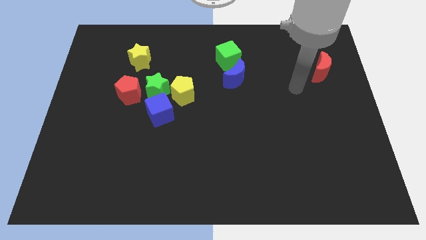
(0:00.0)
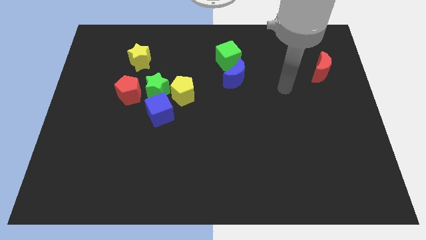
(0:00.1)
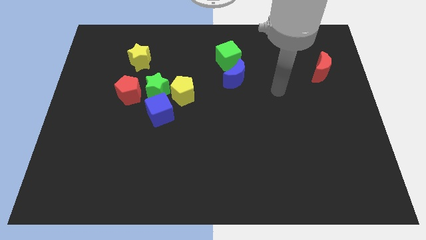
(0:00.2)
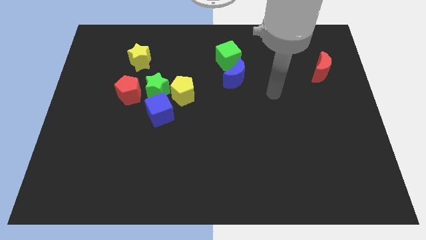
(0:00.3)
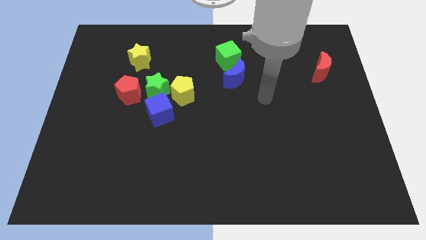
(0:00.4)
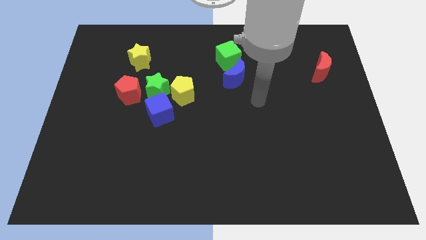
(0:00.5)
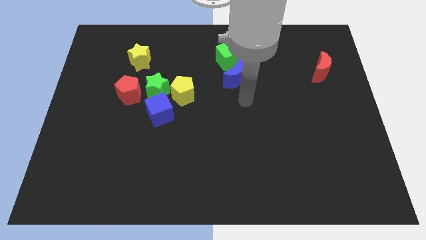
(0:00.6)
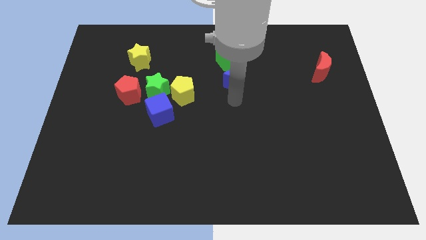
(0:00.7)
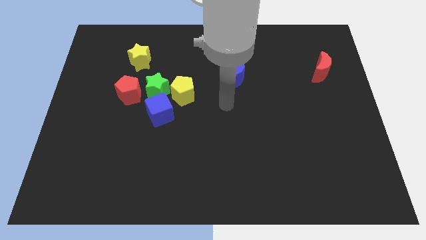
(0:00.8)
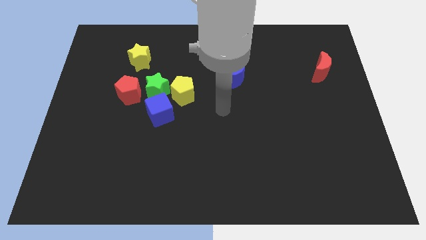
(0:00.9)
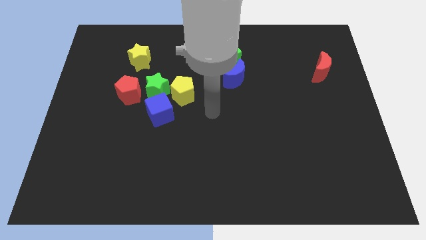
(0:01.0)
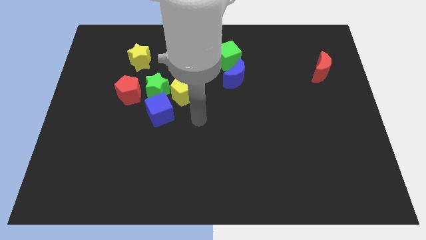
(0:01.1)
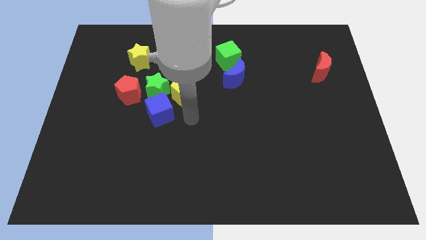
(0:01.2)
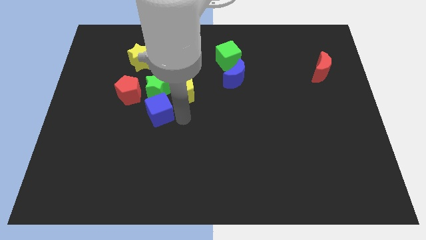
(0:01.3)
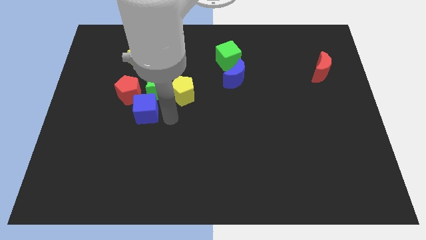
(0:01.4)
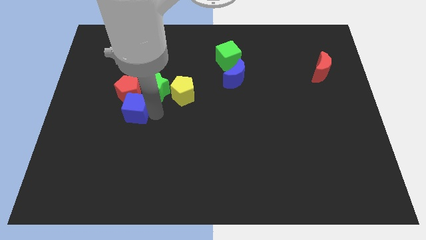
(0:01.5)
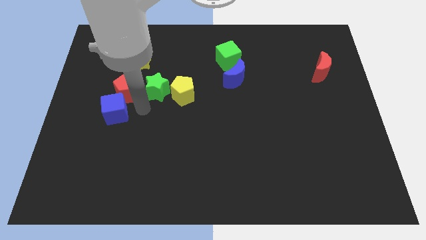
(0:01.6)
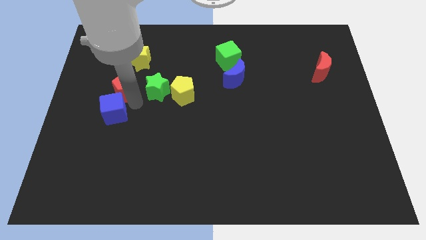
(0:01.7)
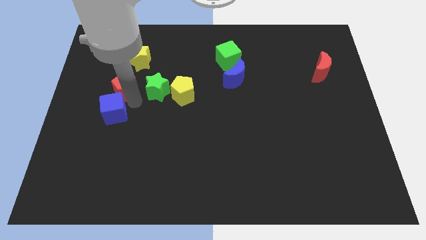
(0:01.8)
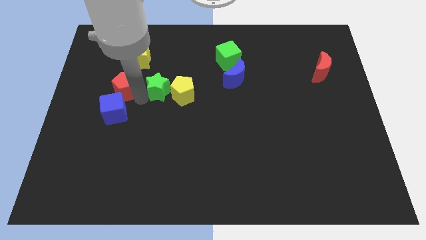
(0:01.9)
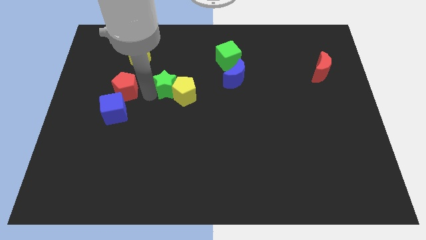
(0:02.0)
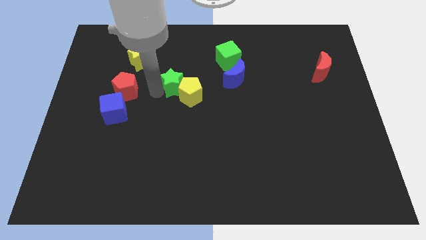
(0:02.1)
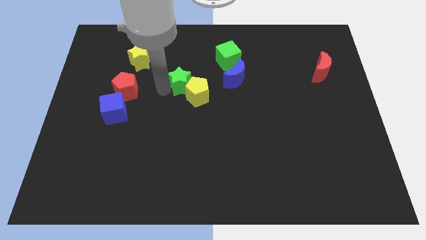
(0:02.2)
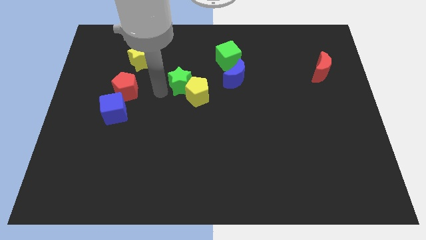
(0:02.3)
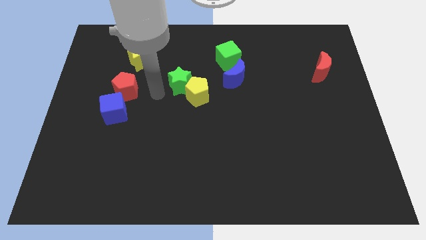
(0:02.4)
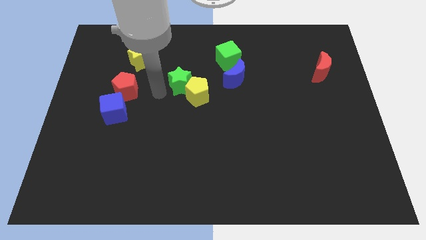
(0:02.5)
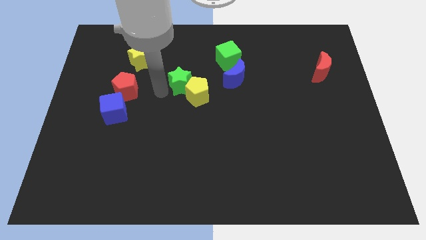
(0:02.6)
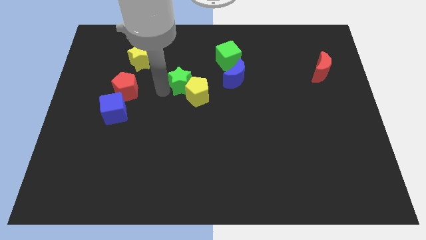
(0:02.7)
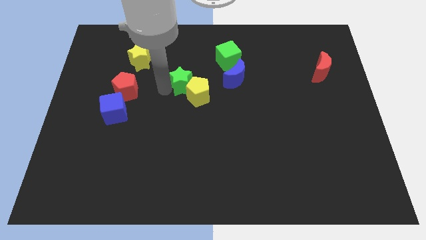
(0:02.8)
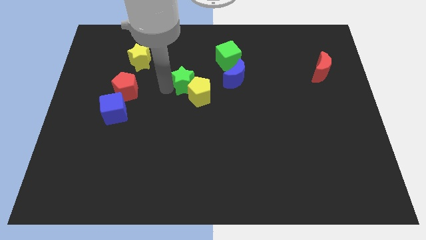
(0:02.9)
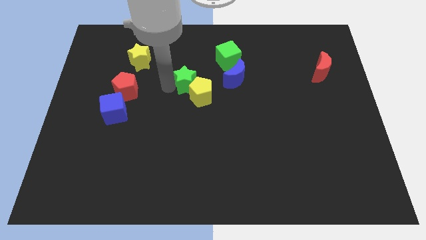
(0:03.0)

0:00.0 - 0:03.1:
move the green star away from the yellow pentagon, blue cube, and red pentagon

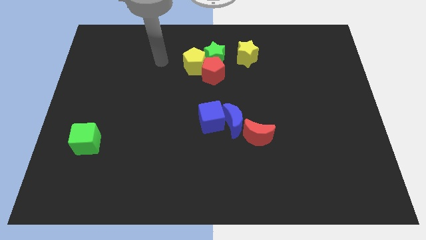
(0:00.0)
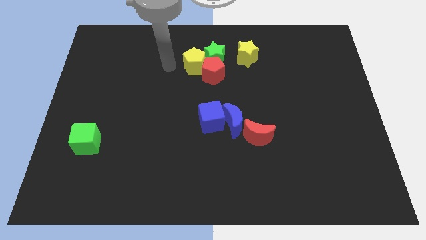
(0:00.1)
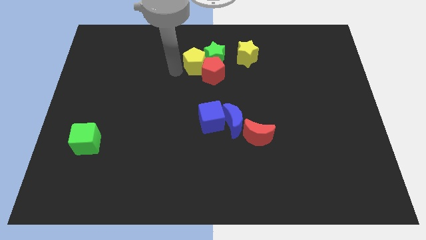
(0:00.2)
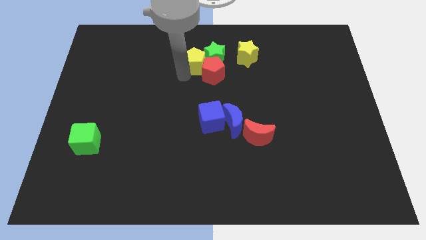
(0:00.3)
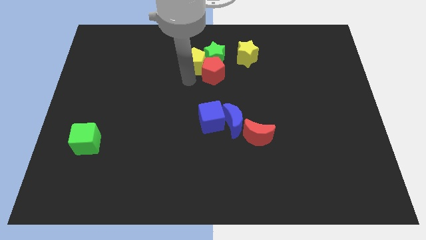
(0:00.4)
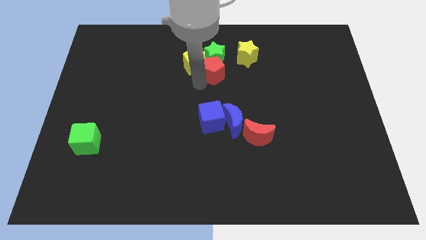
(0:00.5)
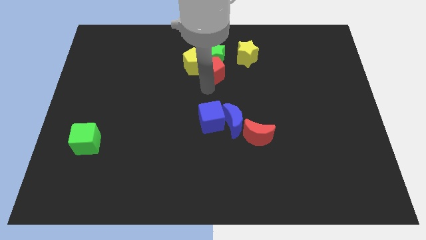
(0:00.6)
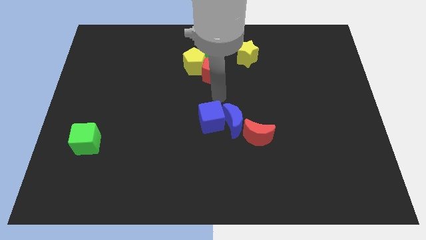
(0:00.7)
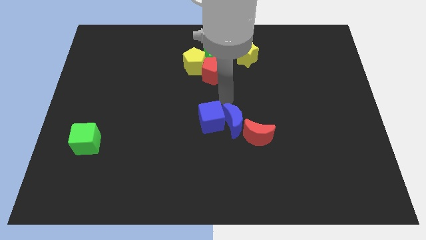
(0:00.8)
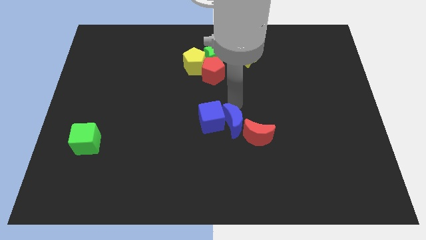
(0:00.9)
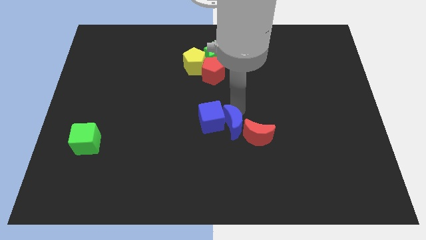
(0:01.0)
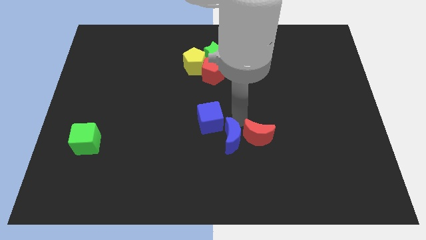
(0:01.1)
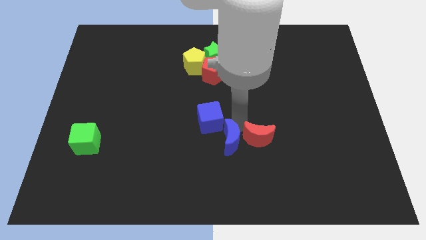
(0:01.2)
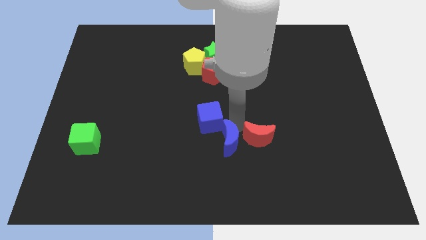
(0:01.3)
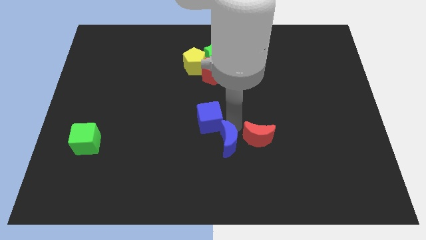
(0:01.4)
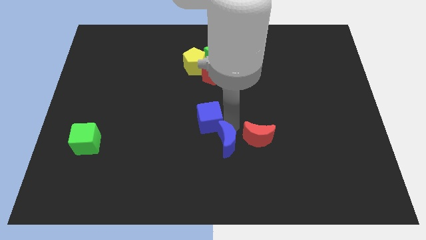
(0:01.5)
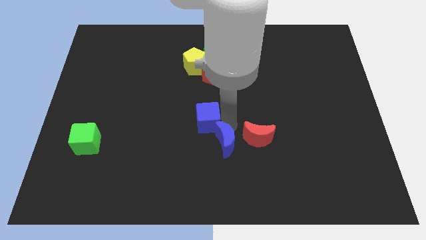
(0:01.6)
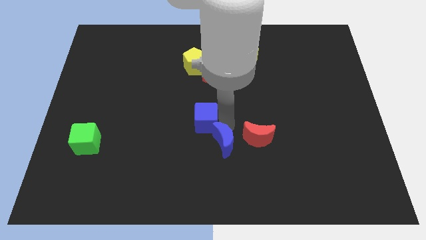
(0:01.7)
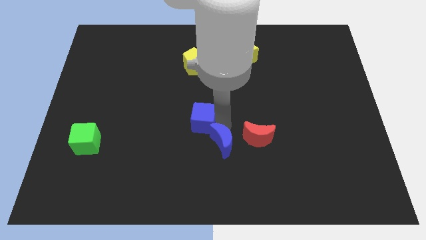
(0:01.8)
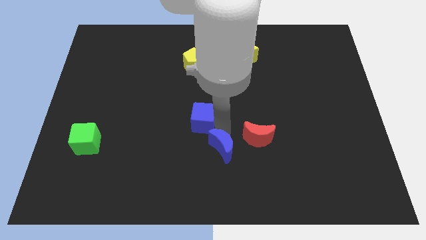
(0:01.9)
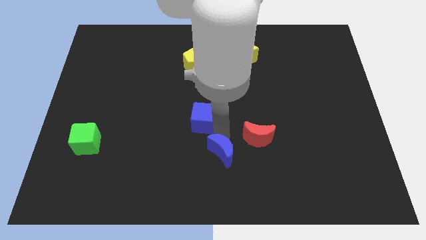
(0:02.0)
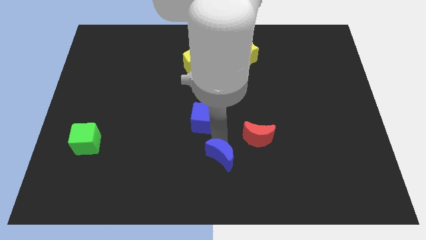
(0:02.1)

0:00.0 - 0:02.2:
separate the blue cube from the blue moon

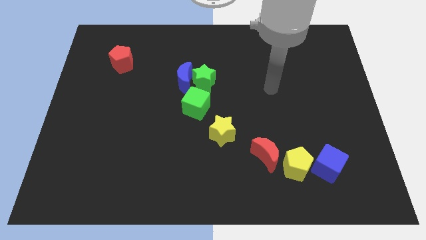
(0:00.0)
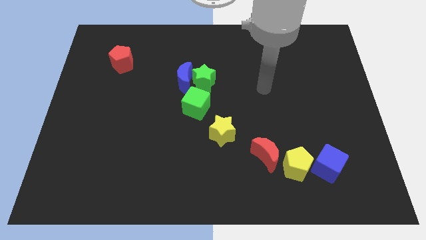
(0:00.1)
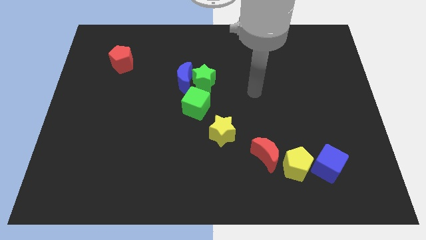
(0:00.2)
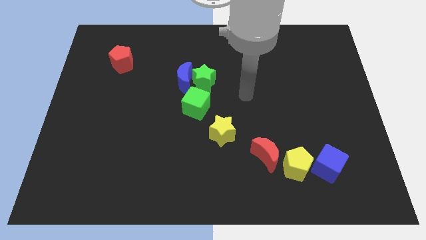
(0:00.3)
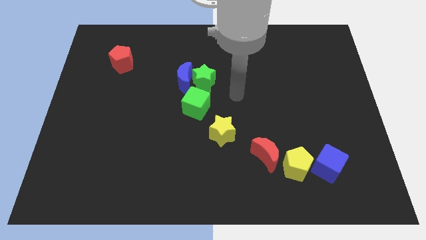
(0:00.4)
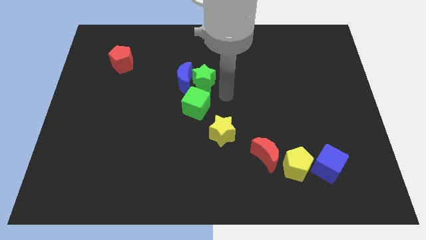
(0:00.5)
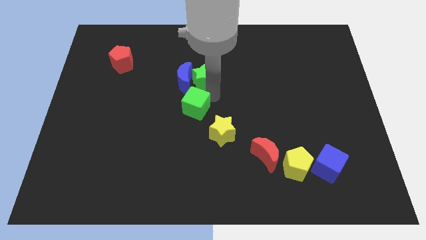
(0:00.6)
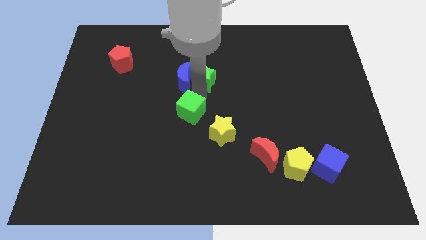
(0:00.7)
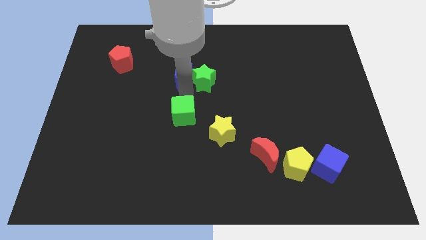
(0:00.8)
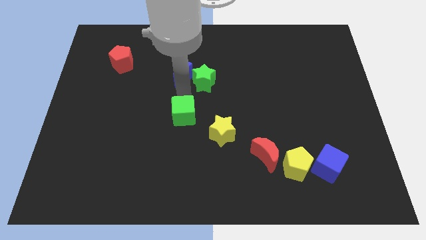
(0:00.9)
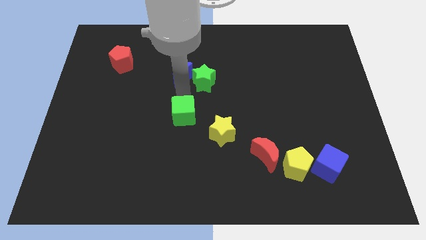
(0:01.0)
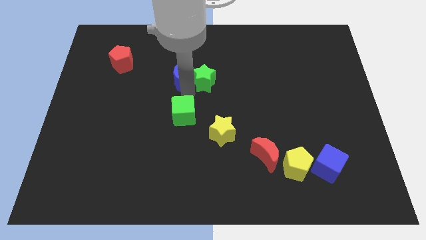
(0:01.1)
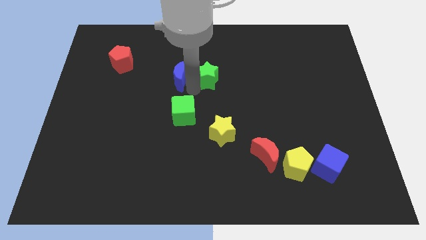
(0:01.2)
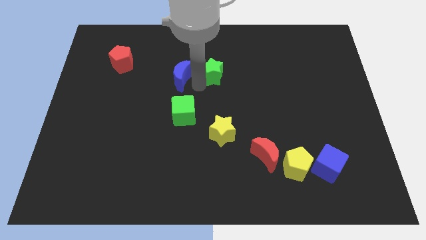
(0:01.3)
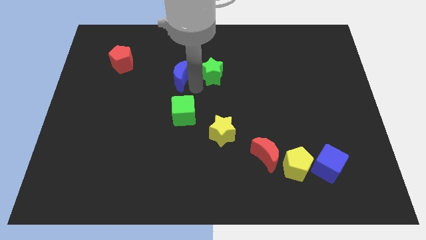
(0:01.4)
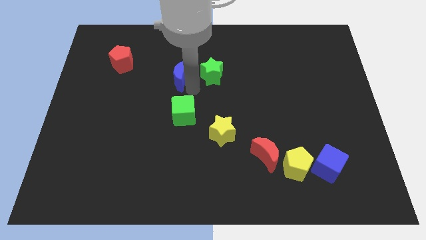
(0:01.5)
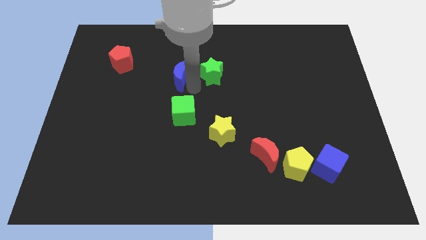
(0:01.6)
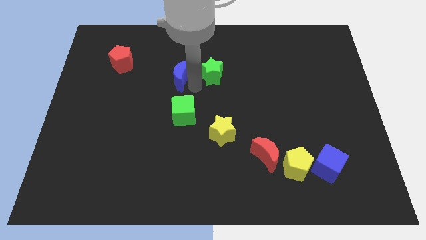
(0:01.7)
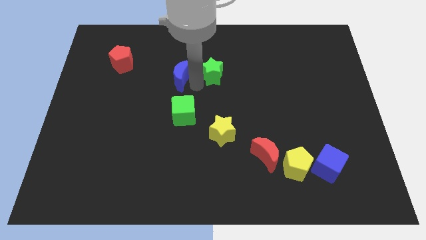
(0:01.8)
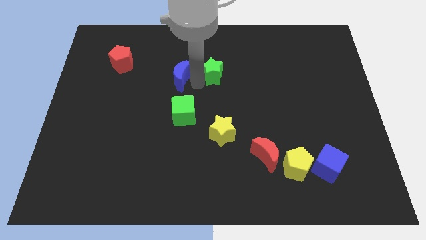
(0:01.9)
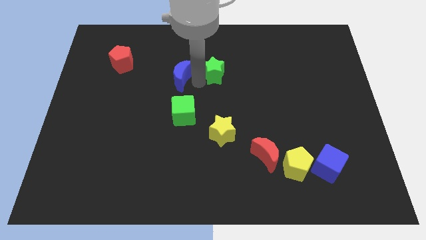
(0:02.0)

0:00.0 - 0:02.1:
move the green star away from the blue moon and green cube

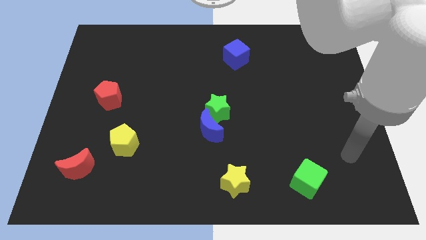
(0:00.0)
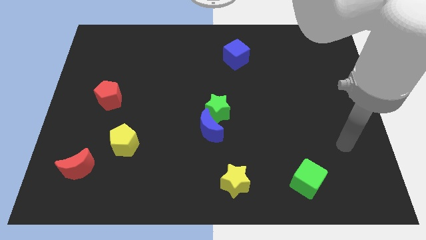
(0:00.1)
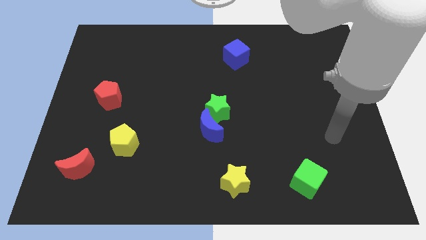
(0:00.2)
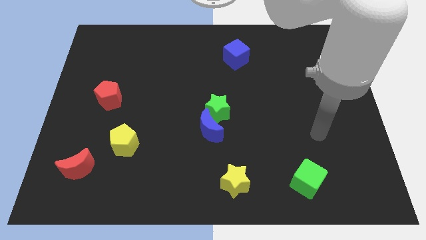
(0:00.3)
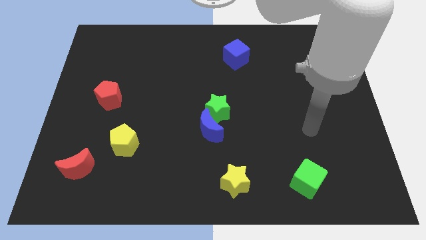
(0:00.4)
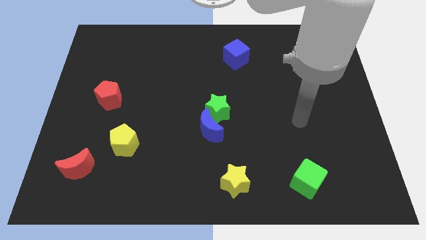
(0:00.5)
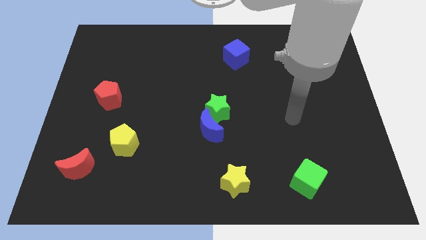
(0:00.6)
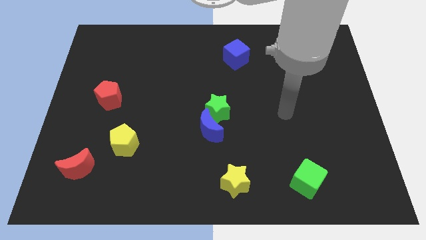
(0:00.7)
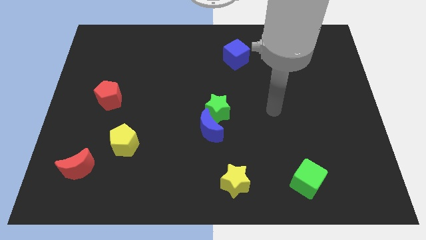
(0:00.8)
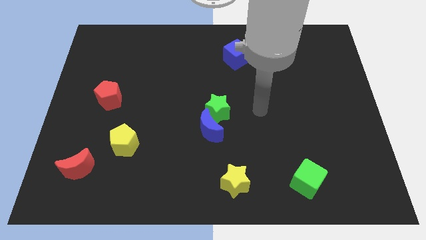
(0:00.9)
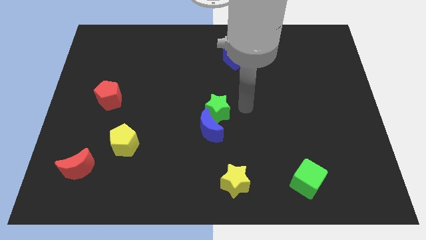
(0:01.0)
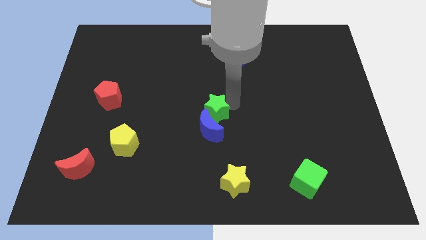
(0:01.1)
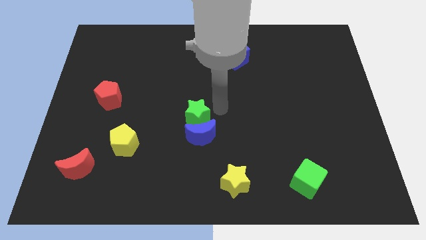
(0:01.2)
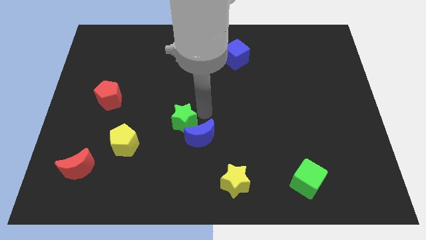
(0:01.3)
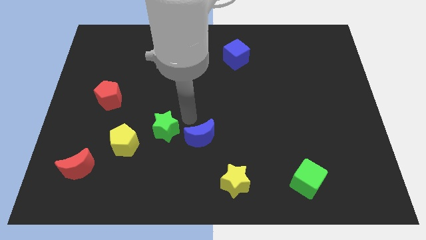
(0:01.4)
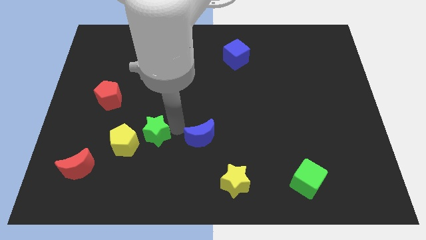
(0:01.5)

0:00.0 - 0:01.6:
move the blue moon away from the green star

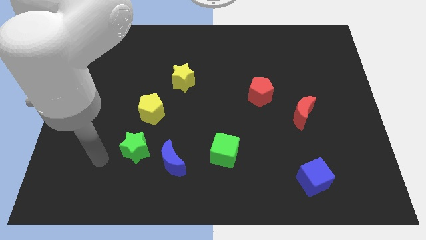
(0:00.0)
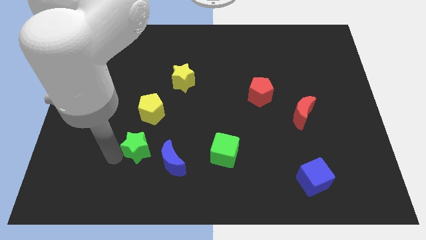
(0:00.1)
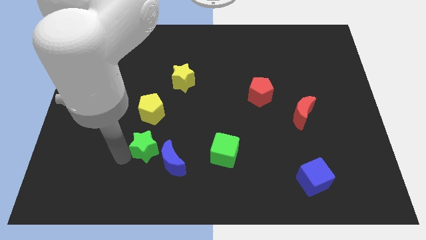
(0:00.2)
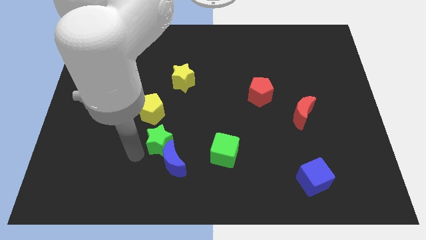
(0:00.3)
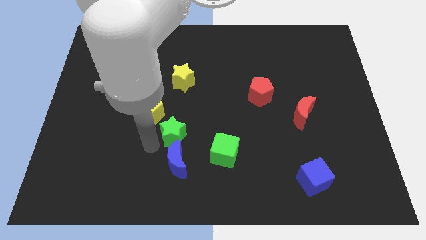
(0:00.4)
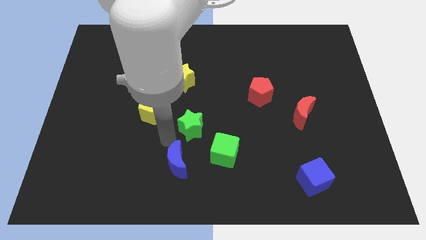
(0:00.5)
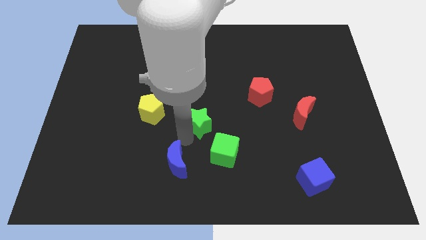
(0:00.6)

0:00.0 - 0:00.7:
pull the blue moon apart from the green star
